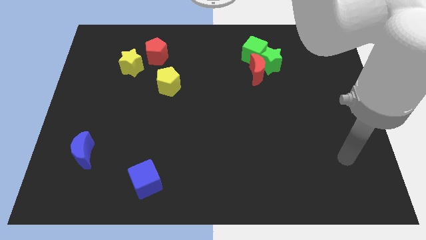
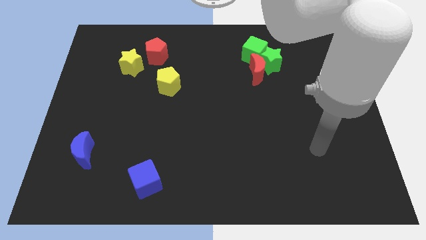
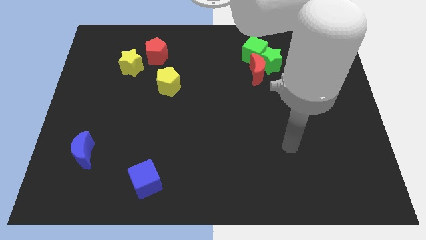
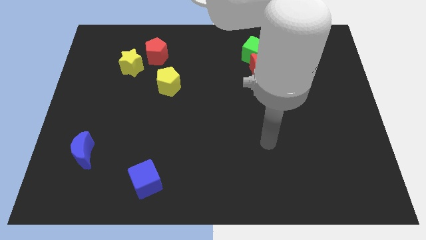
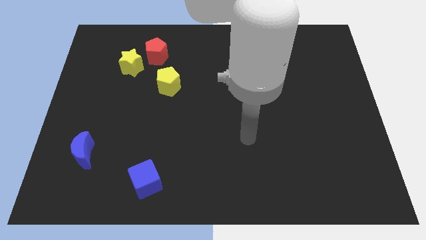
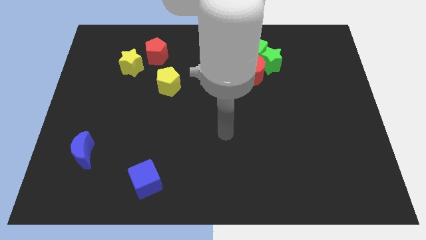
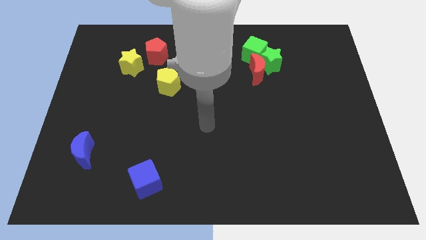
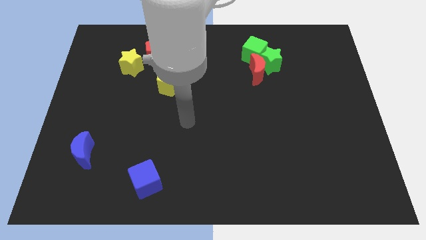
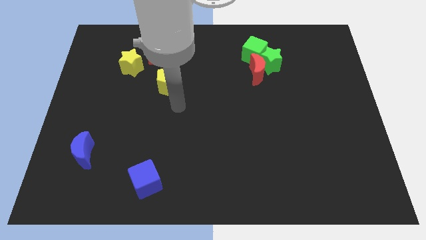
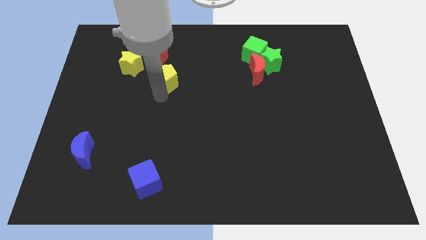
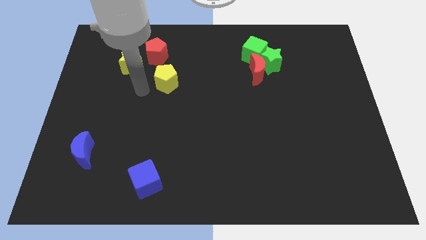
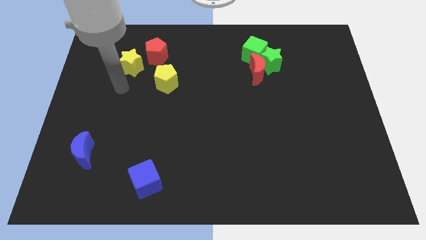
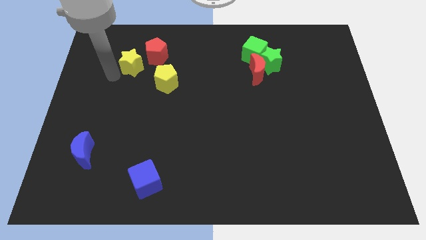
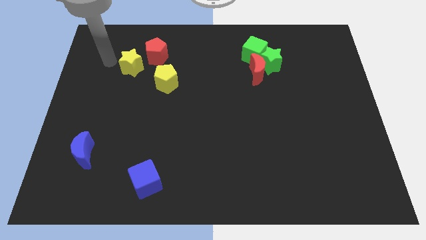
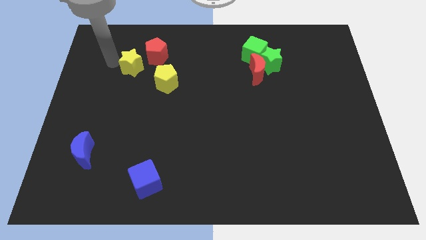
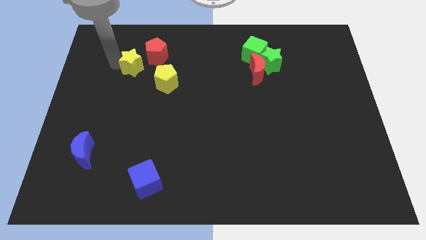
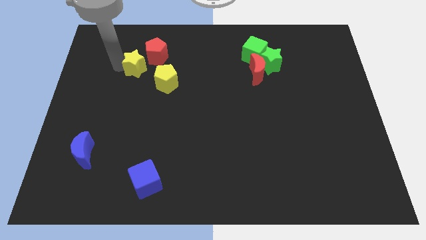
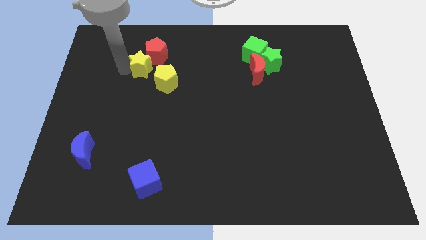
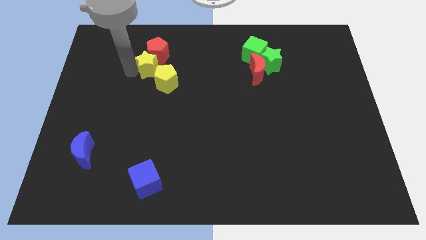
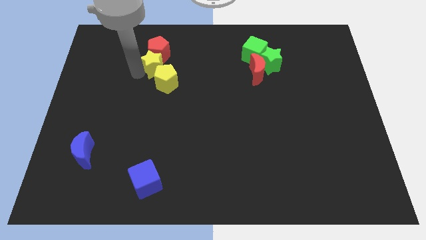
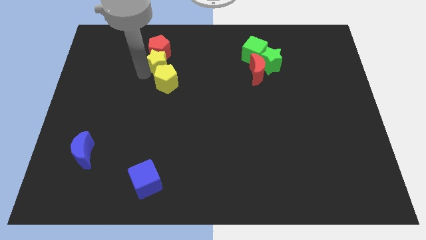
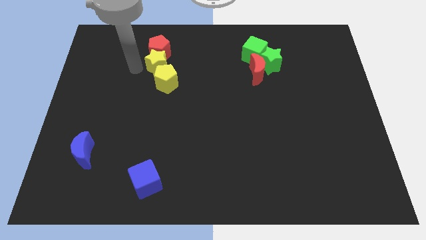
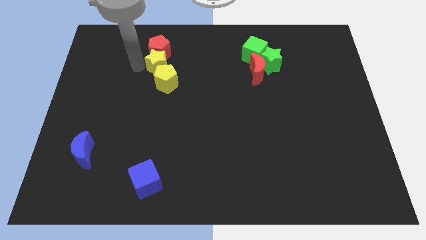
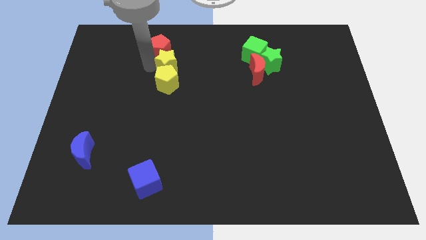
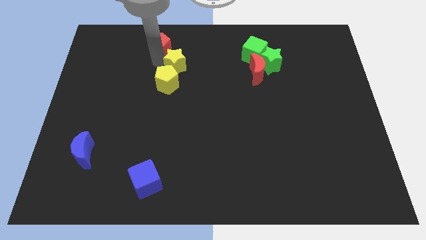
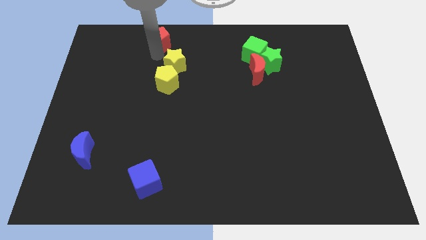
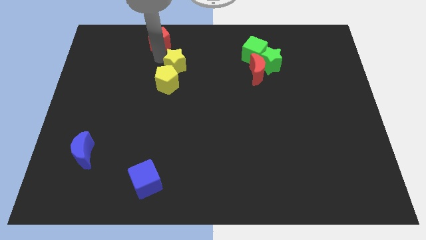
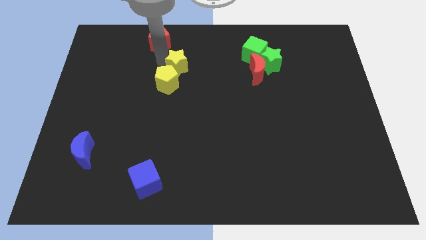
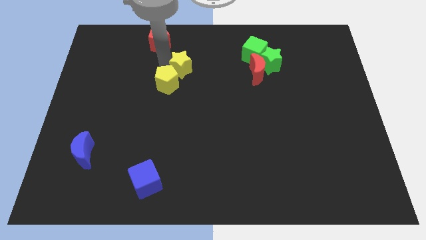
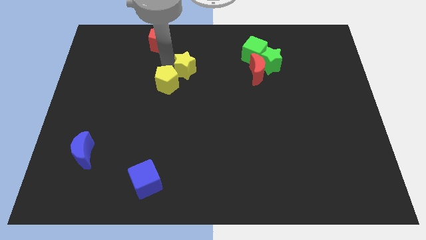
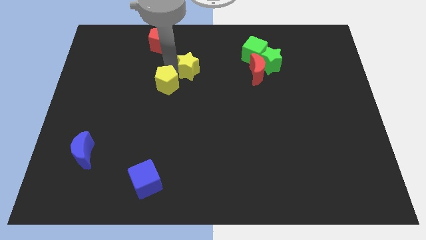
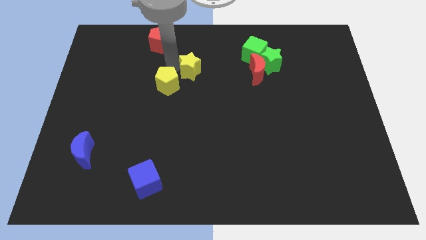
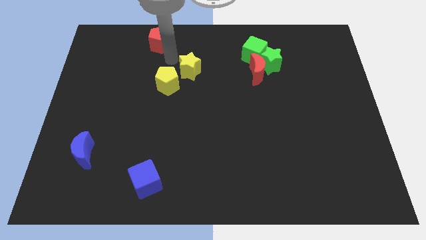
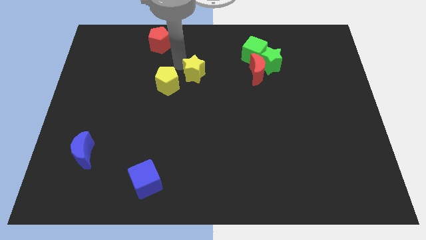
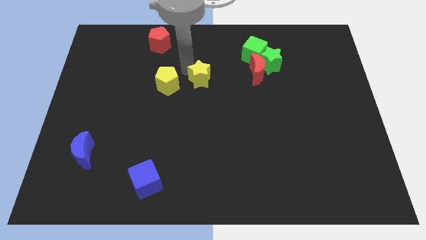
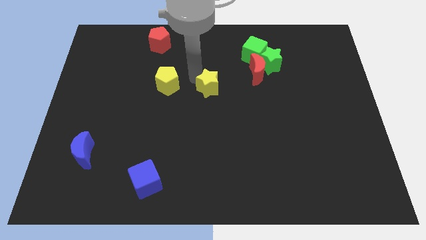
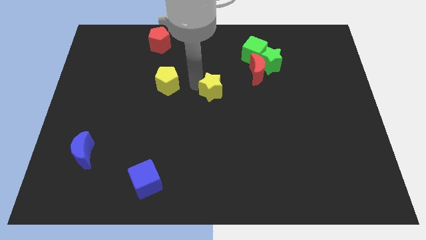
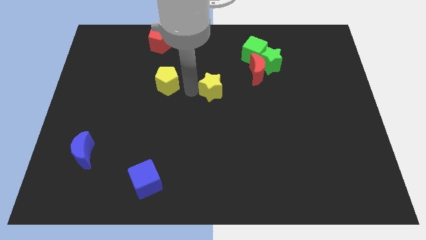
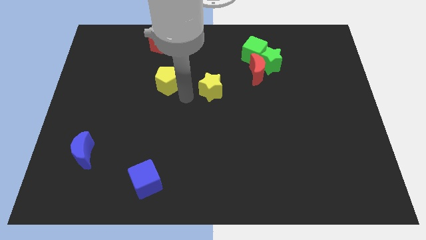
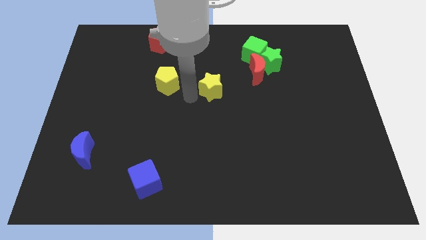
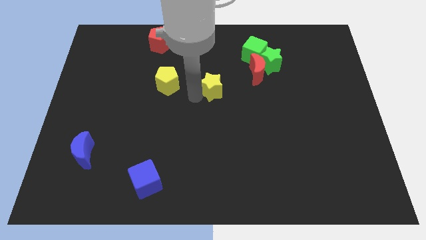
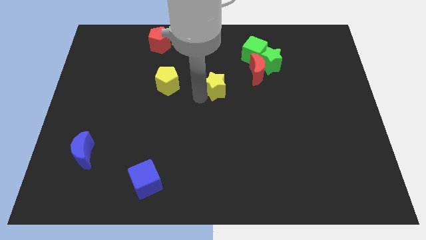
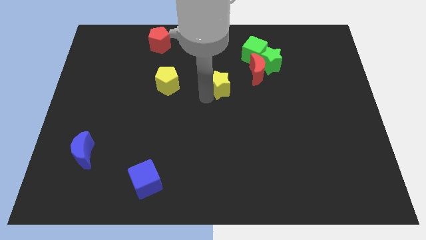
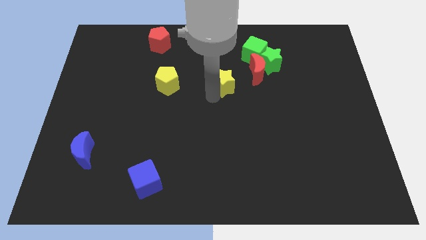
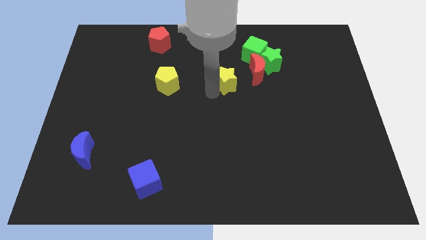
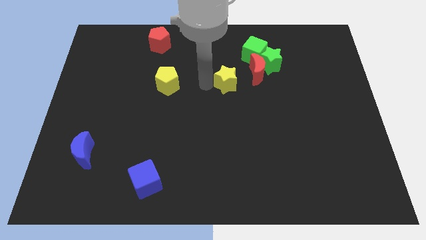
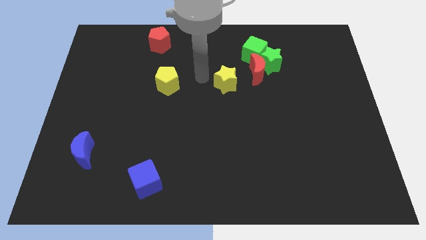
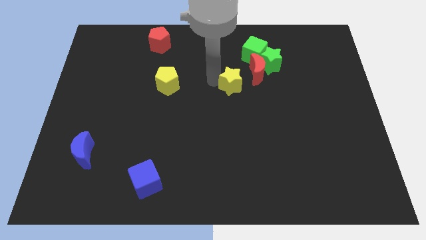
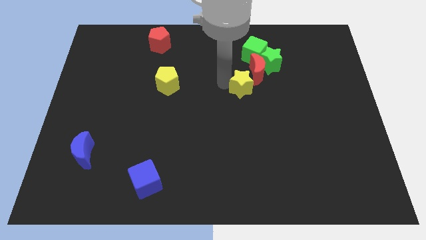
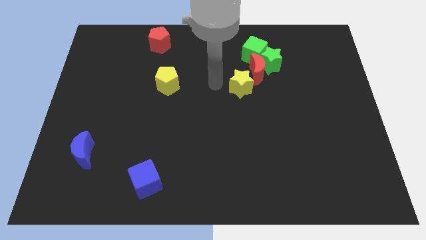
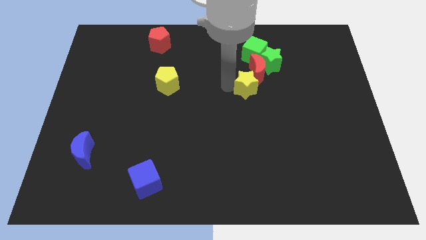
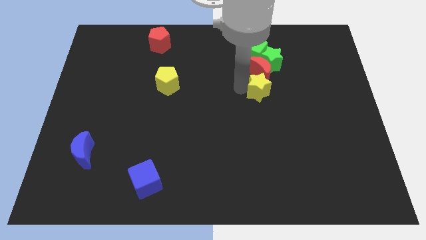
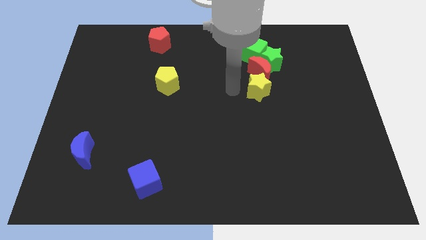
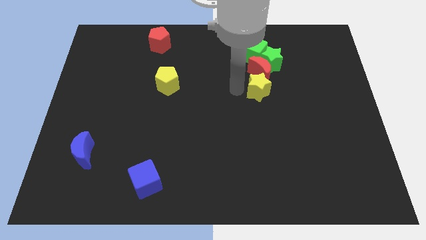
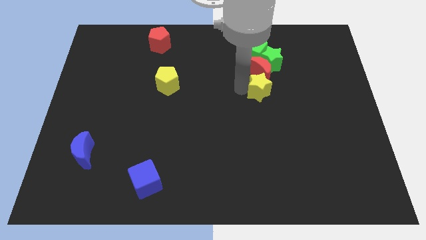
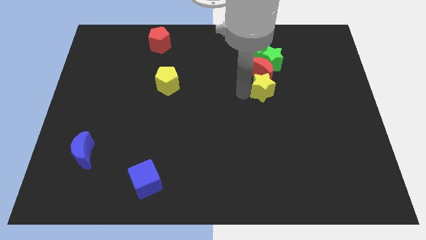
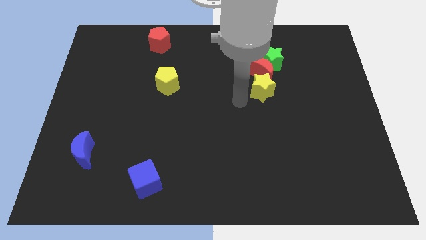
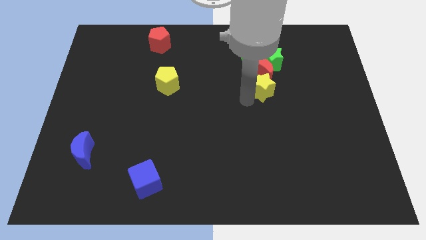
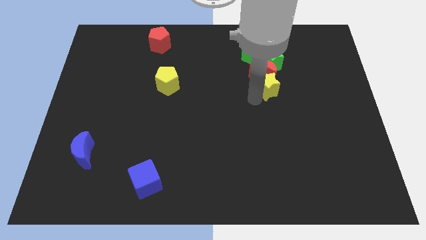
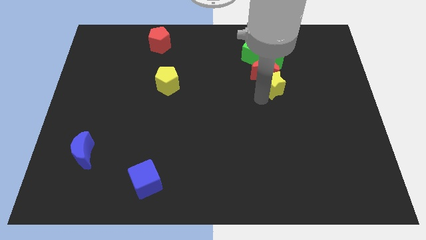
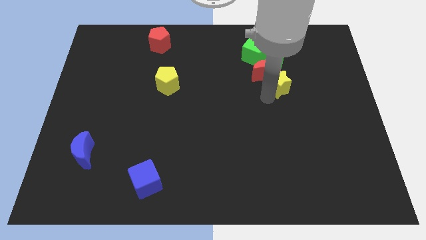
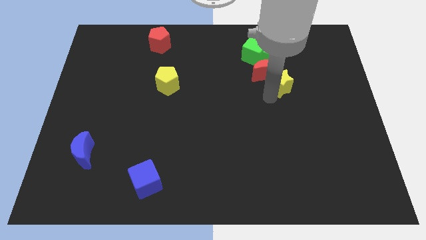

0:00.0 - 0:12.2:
put the yellow star to the right side of the red moon

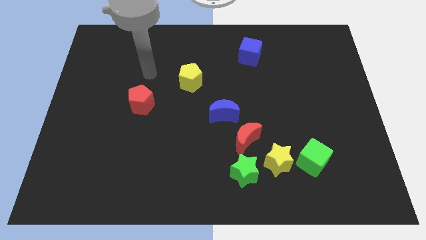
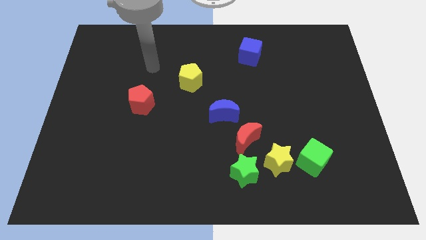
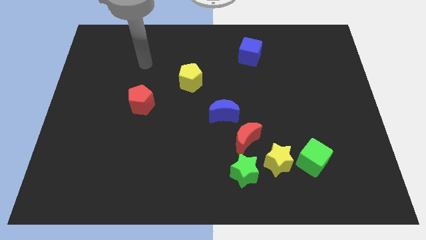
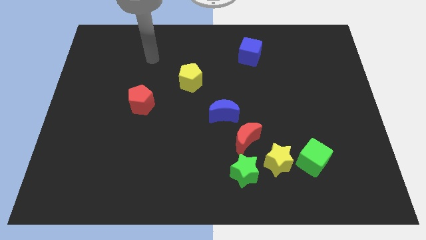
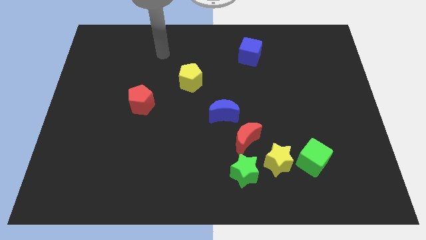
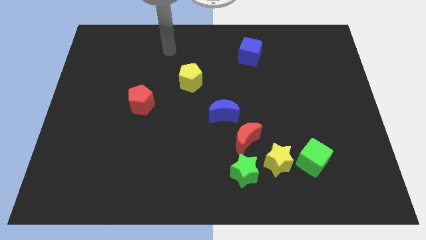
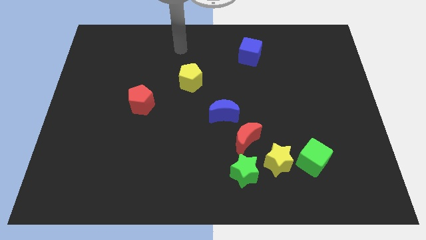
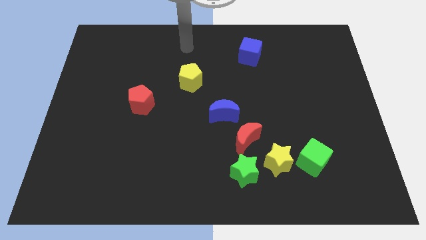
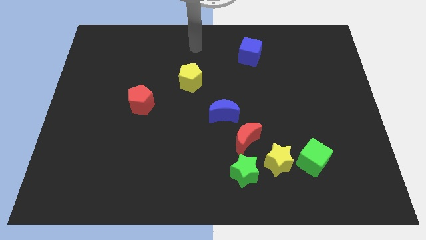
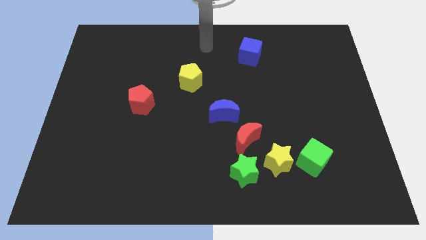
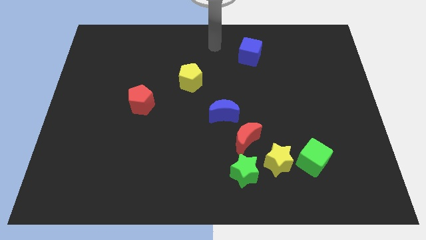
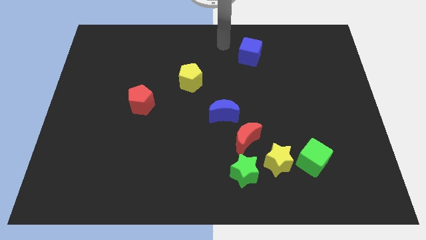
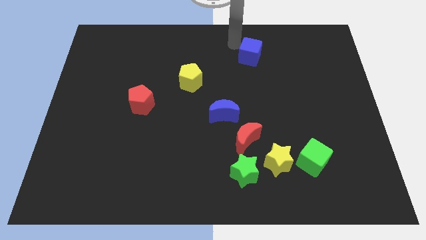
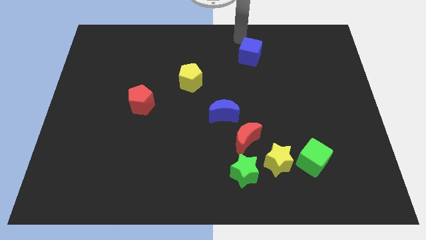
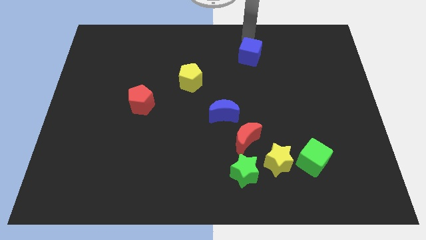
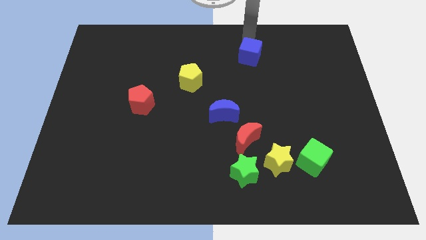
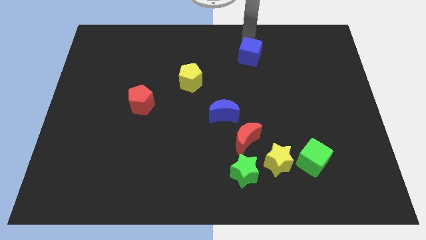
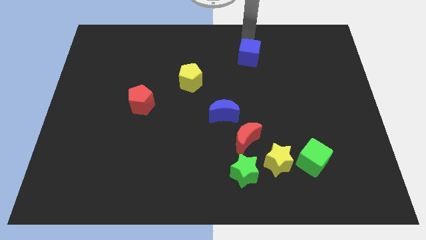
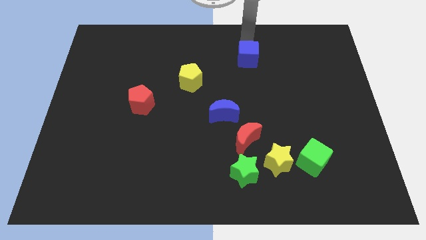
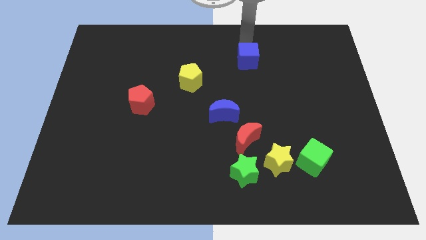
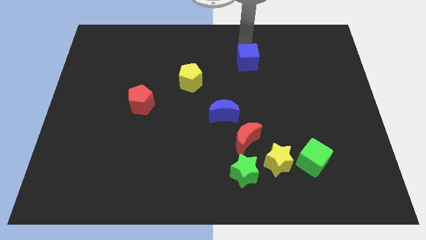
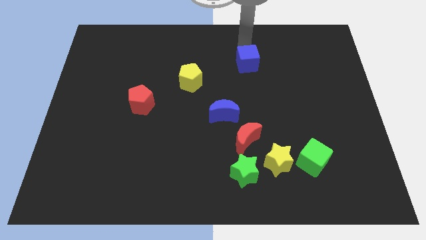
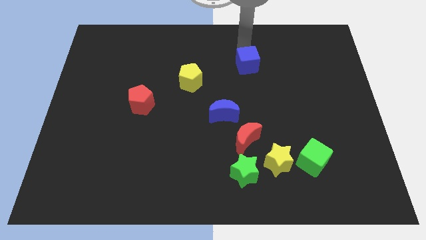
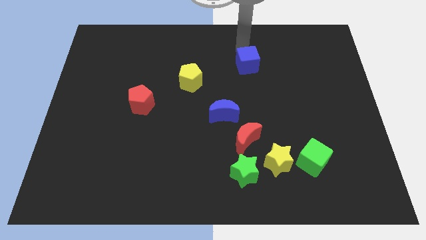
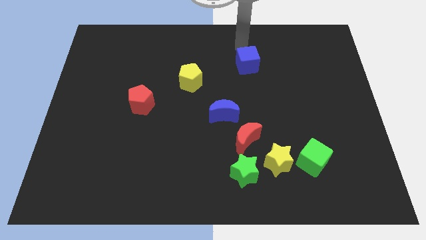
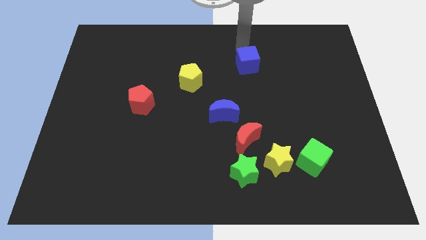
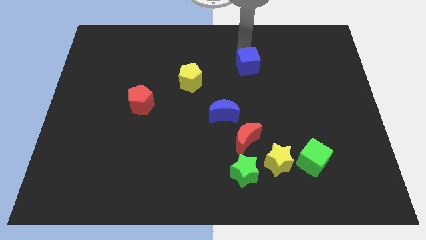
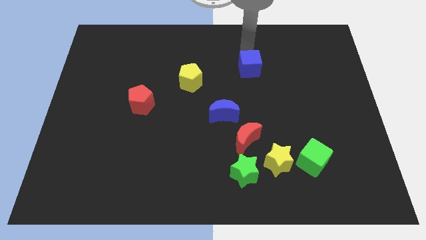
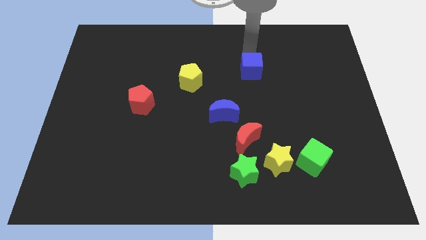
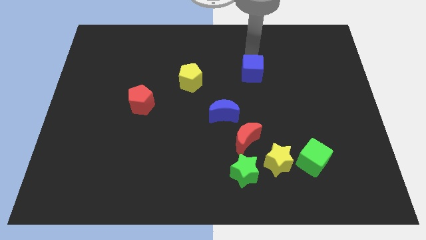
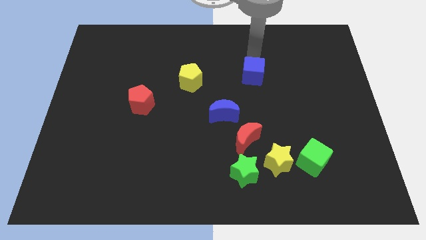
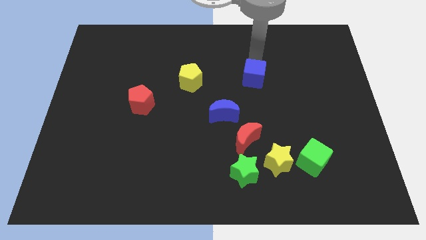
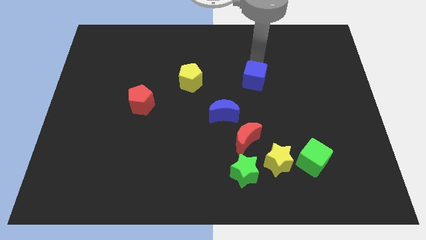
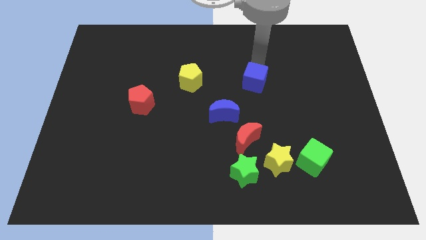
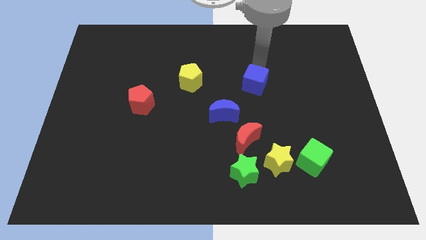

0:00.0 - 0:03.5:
push the blue cube to the top right of the blue moon
